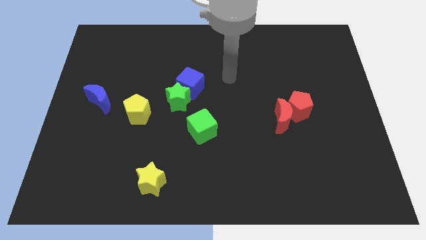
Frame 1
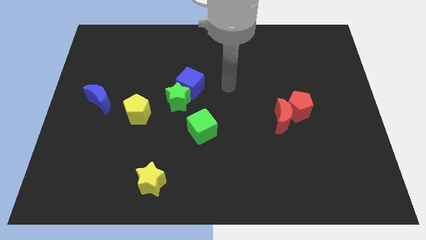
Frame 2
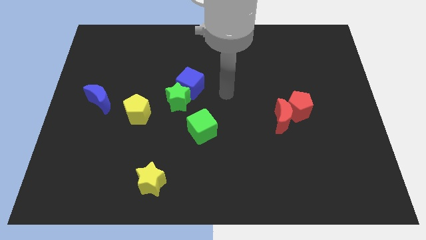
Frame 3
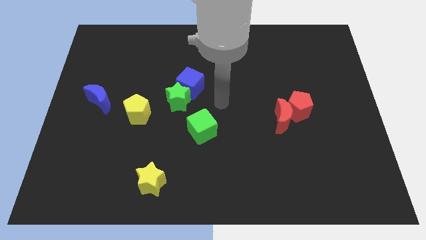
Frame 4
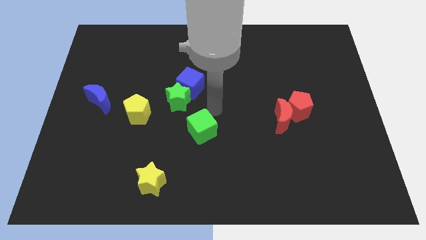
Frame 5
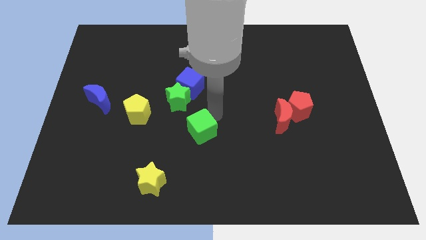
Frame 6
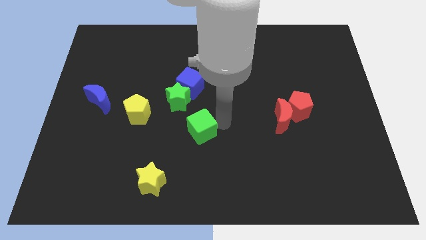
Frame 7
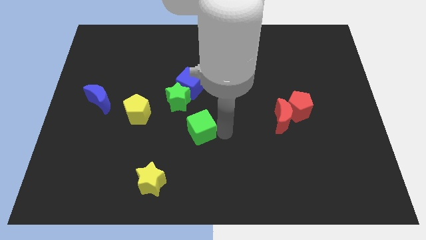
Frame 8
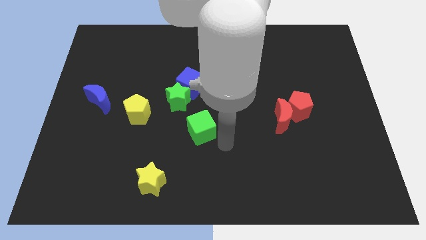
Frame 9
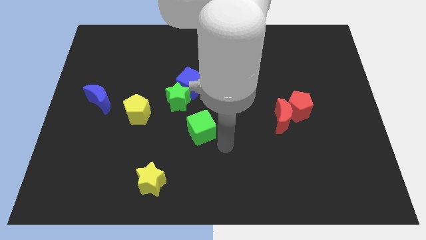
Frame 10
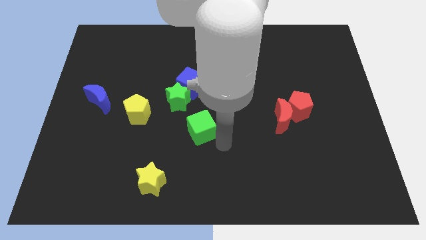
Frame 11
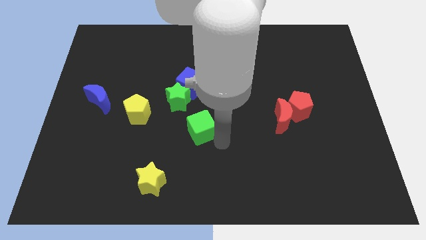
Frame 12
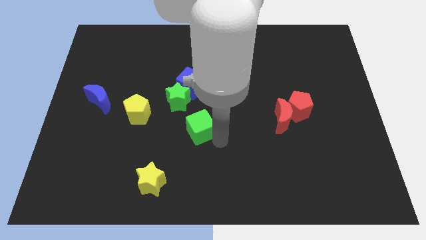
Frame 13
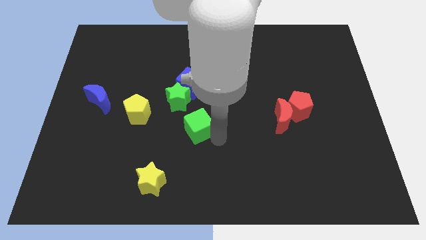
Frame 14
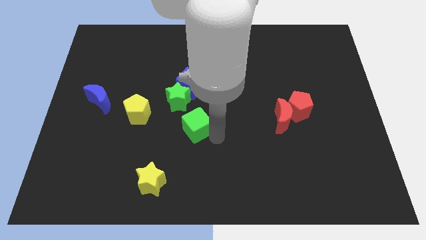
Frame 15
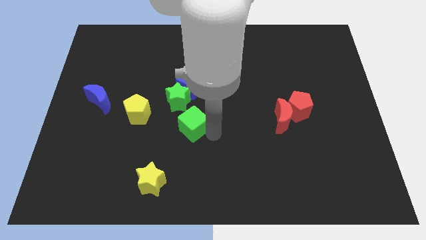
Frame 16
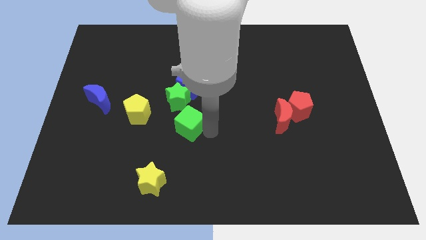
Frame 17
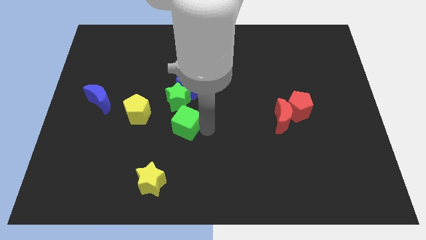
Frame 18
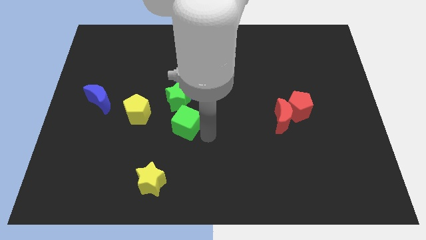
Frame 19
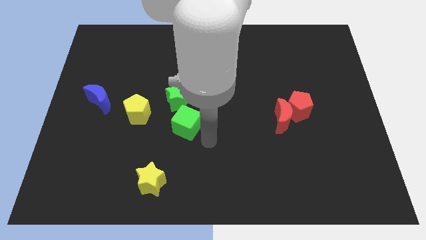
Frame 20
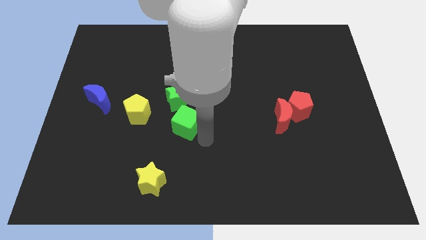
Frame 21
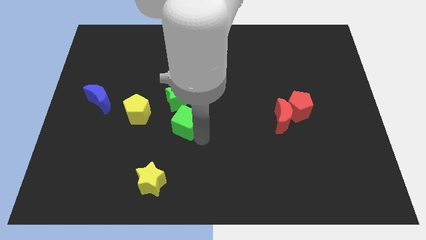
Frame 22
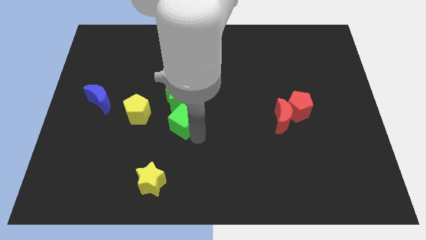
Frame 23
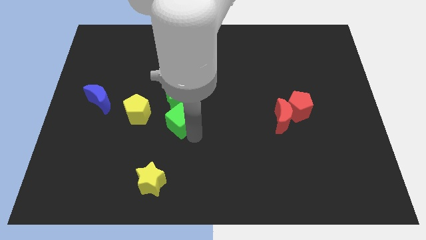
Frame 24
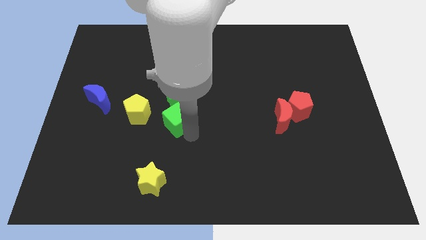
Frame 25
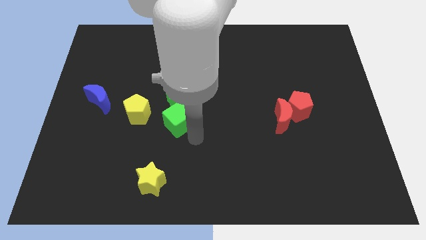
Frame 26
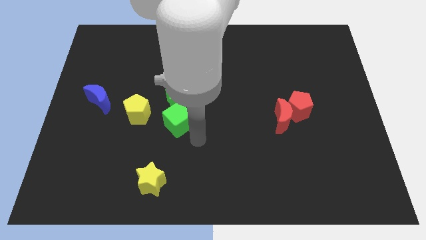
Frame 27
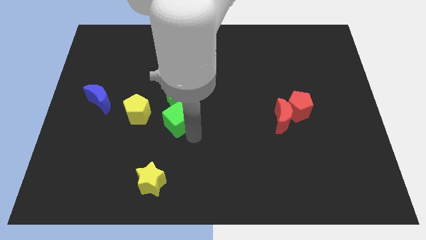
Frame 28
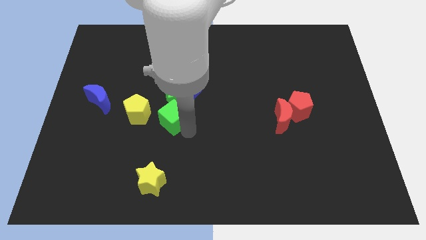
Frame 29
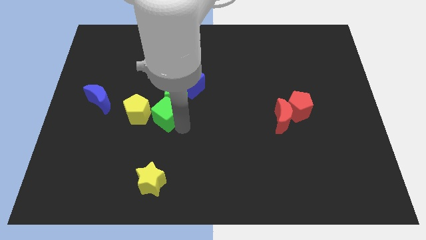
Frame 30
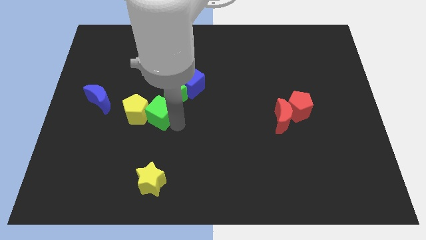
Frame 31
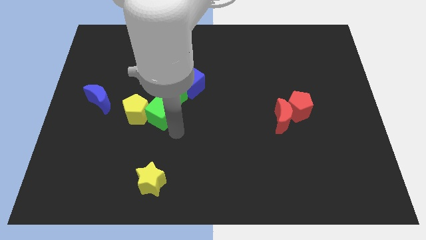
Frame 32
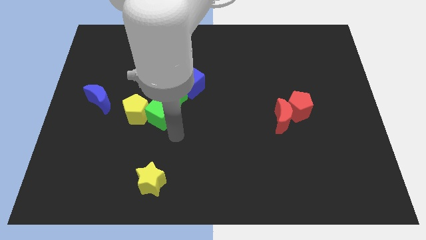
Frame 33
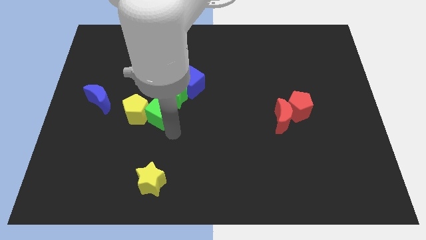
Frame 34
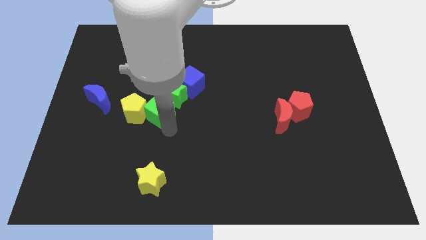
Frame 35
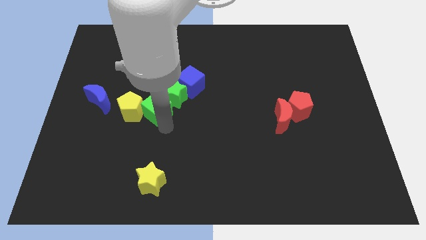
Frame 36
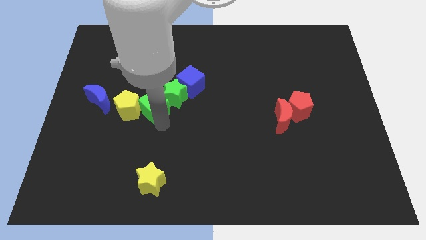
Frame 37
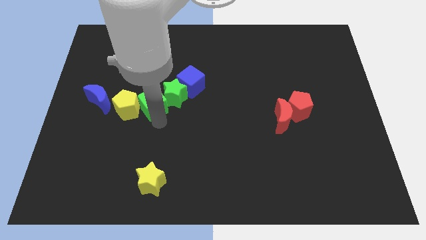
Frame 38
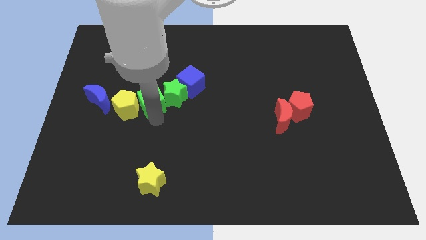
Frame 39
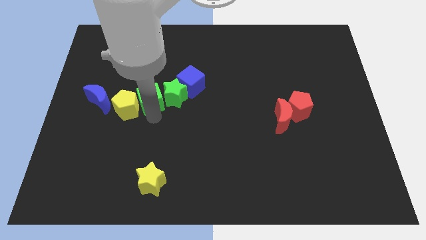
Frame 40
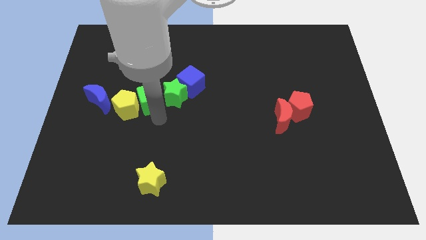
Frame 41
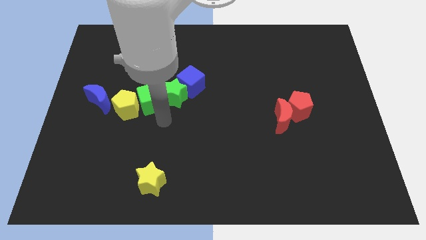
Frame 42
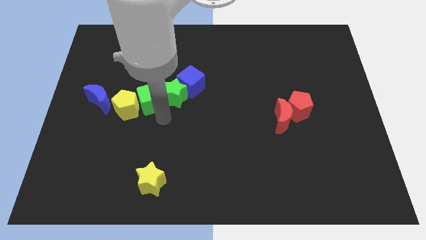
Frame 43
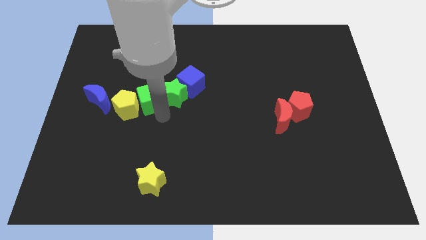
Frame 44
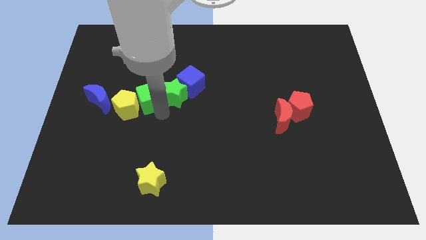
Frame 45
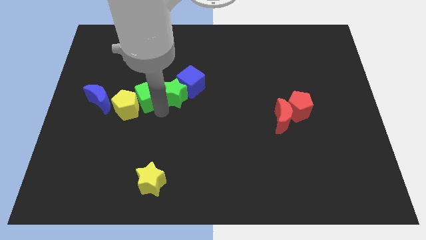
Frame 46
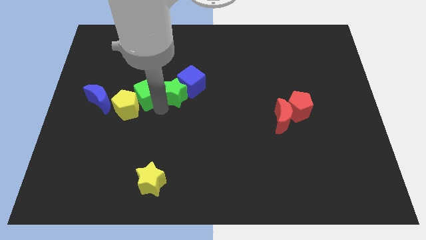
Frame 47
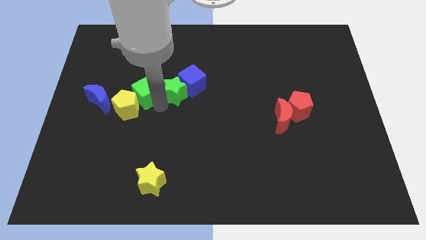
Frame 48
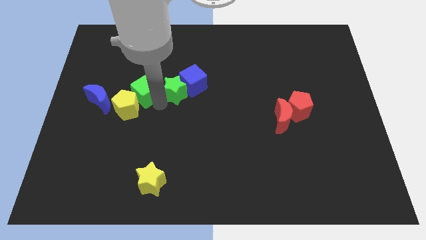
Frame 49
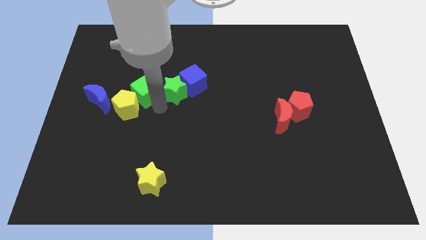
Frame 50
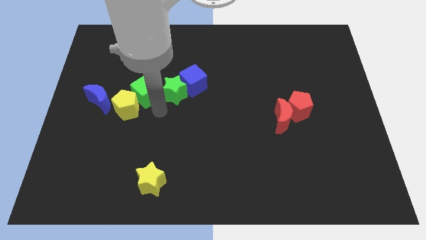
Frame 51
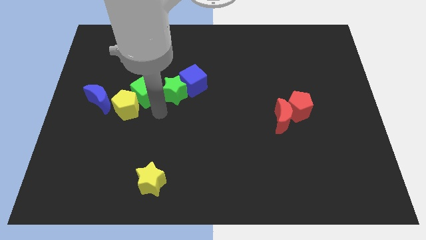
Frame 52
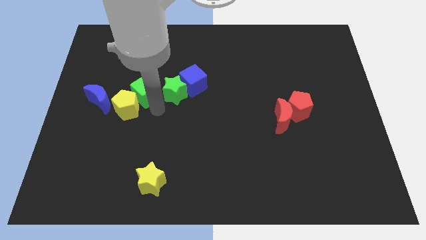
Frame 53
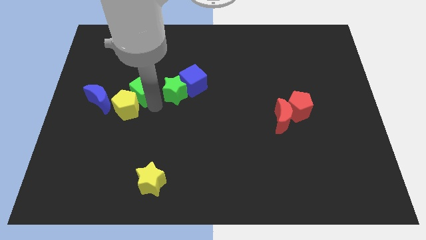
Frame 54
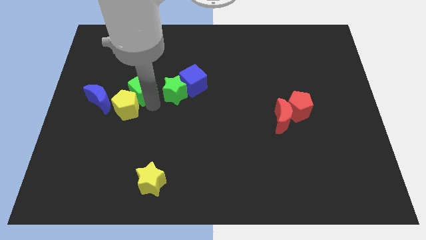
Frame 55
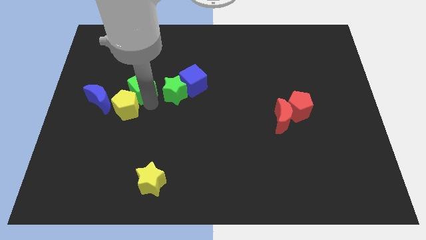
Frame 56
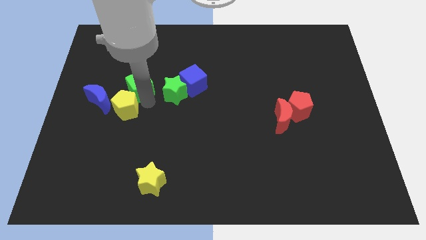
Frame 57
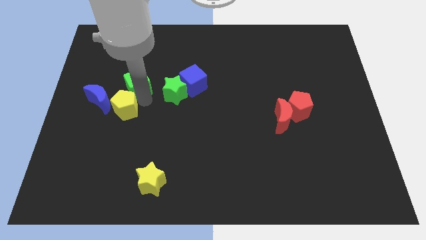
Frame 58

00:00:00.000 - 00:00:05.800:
move the green cube up and left

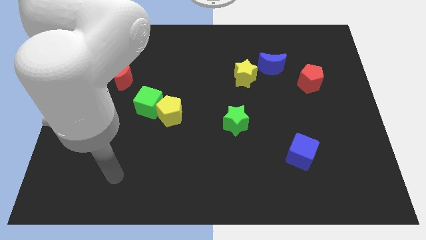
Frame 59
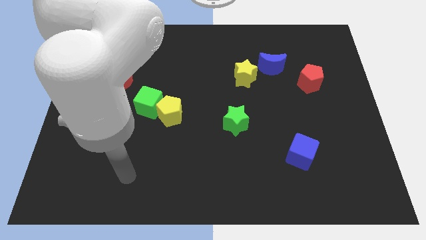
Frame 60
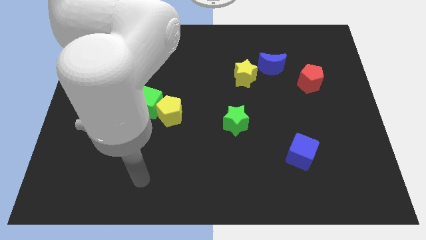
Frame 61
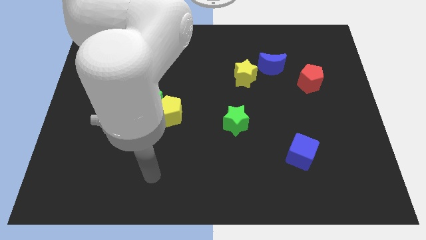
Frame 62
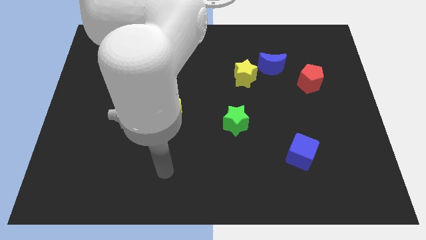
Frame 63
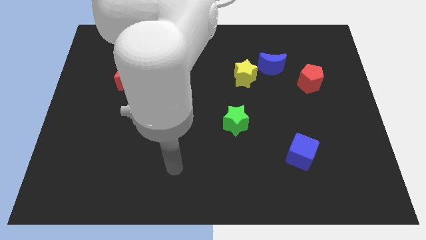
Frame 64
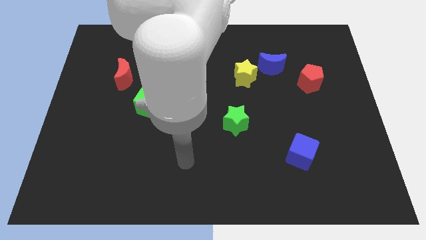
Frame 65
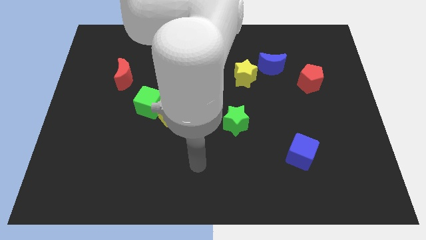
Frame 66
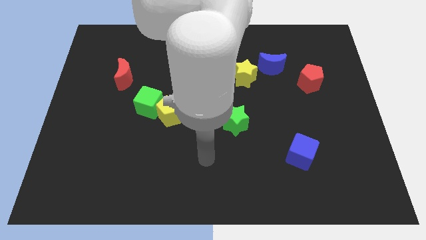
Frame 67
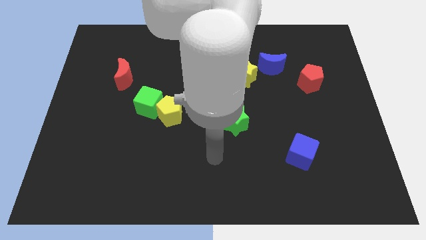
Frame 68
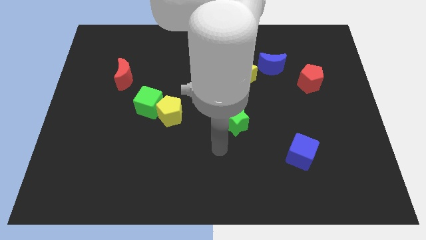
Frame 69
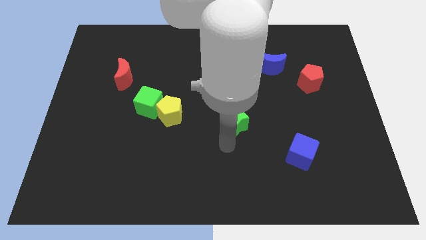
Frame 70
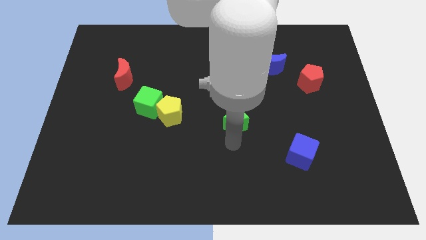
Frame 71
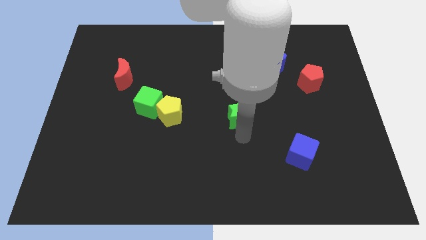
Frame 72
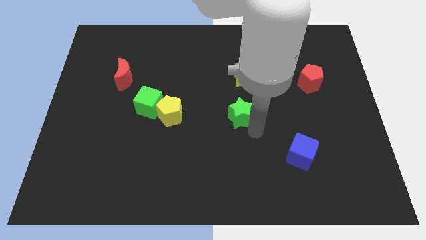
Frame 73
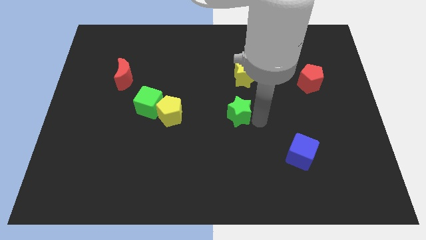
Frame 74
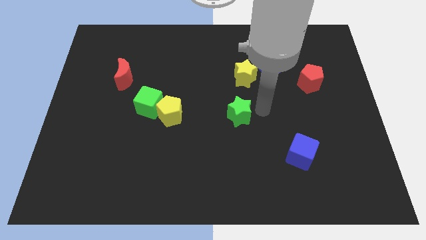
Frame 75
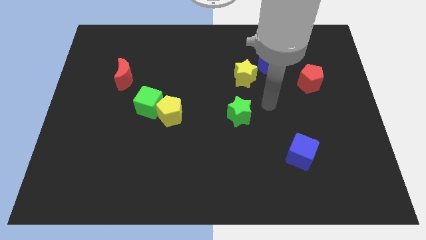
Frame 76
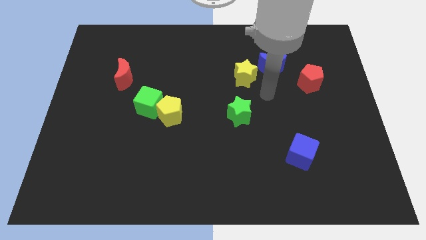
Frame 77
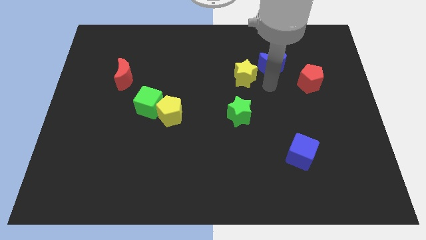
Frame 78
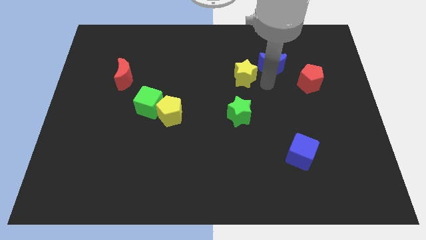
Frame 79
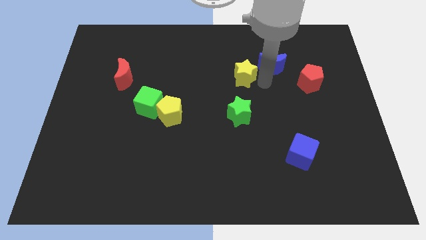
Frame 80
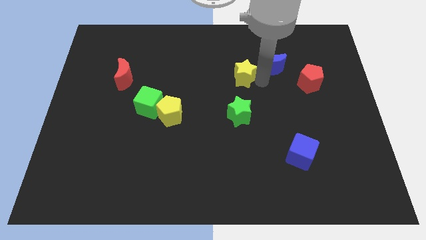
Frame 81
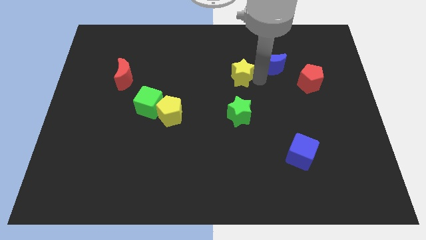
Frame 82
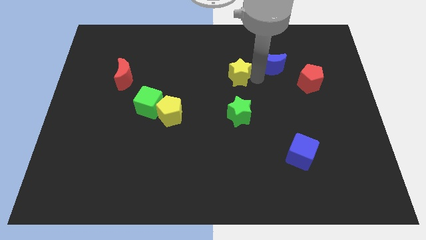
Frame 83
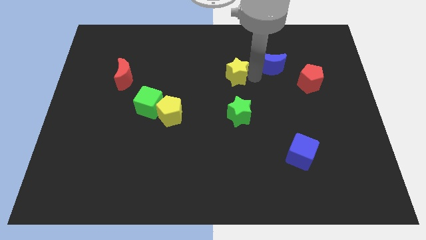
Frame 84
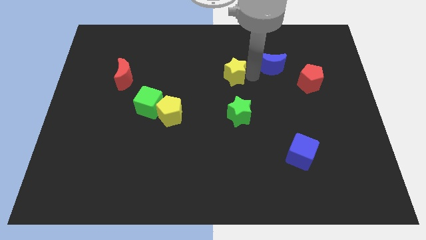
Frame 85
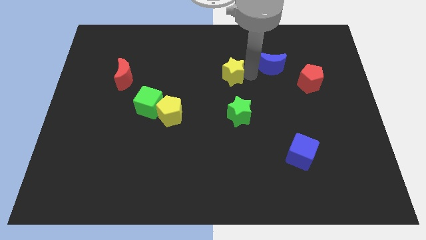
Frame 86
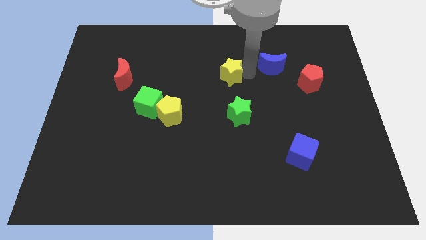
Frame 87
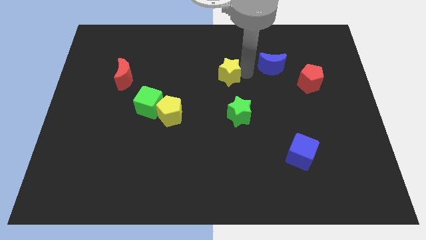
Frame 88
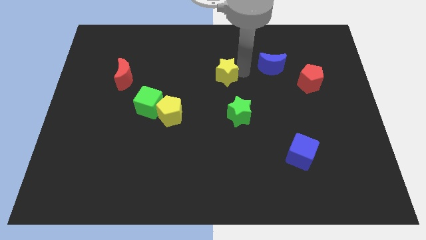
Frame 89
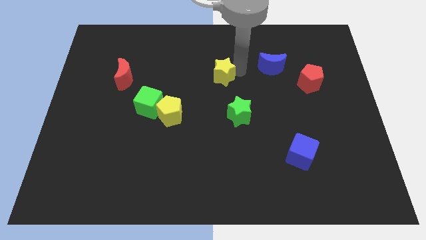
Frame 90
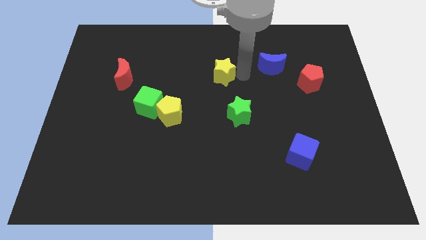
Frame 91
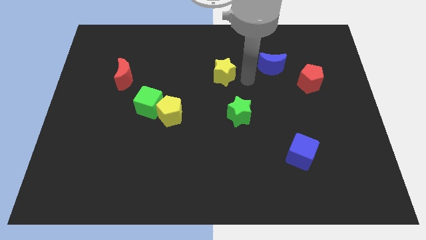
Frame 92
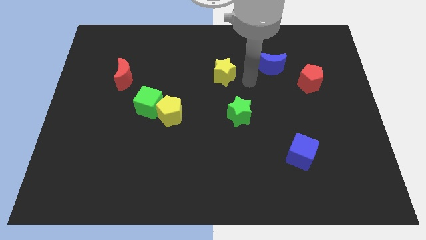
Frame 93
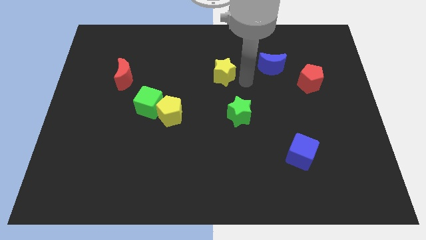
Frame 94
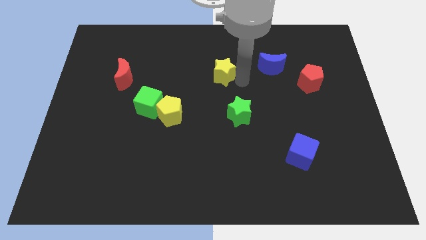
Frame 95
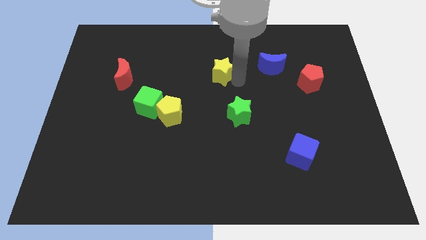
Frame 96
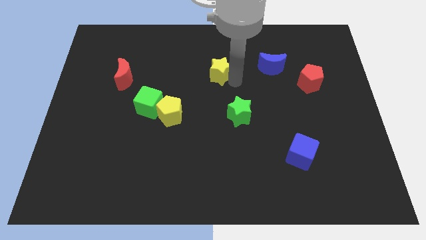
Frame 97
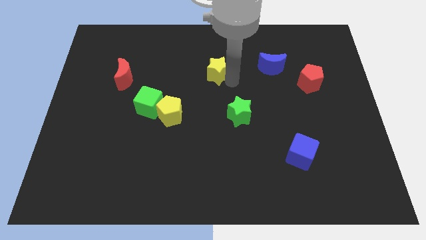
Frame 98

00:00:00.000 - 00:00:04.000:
slightly push the yellow star left
